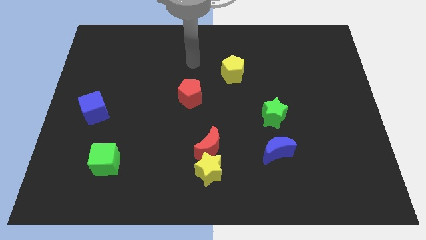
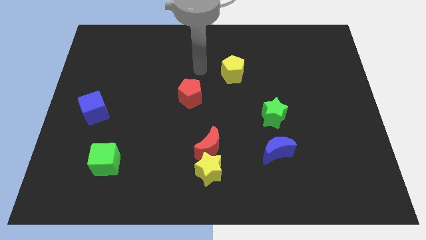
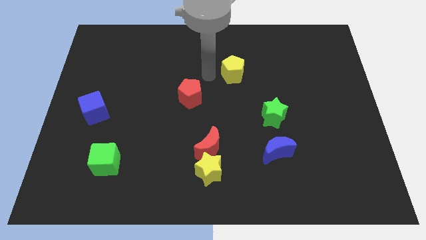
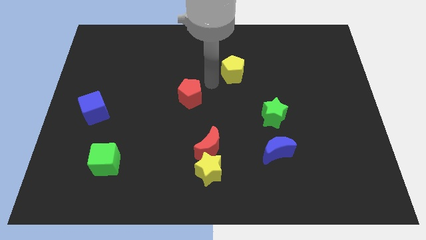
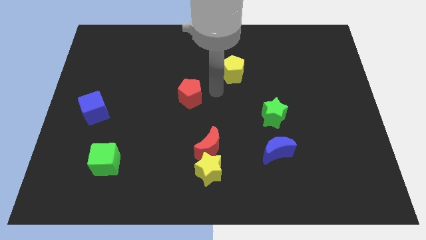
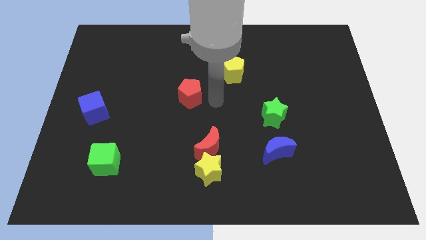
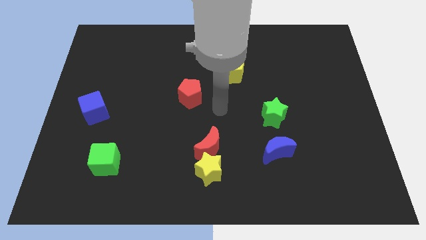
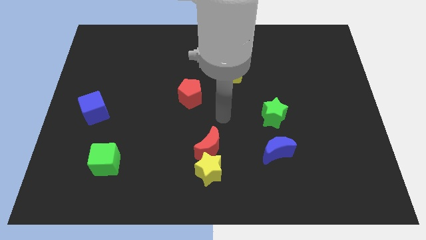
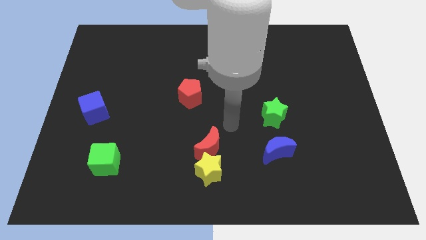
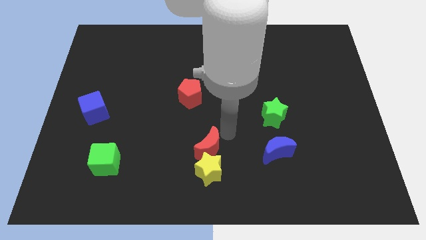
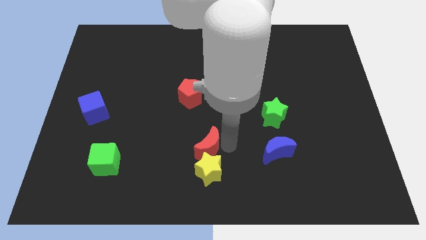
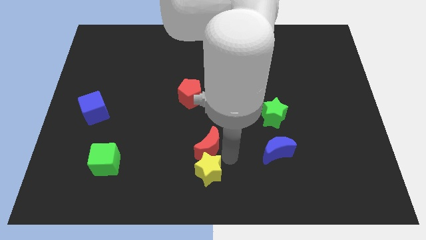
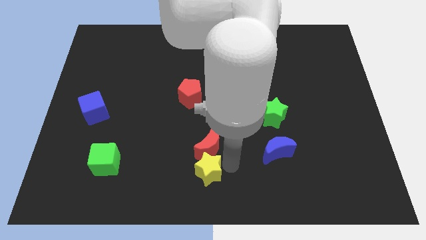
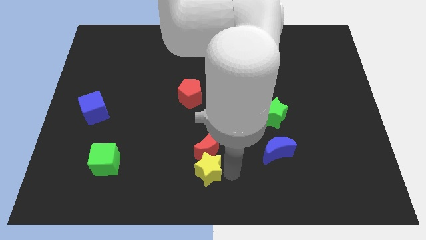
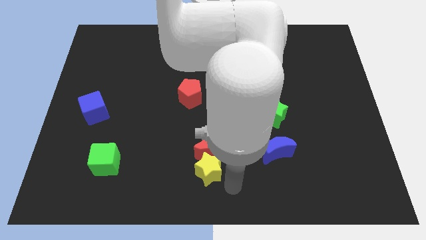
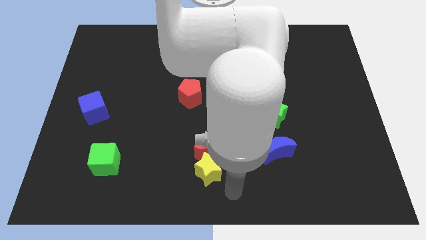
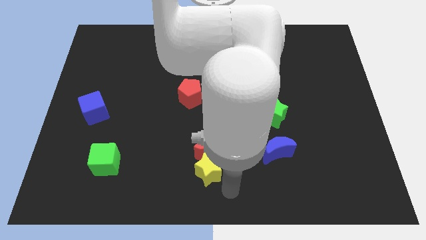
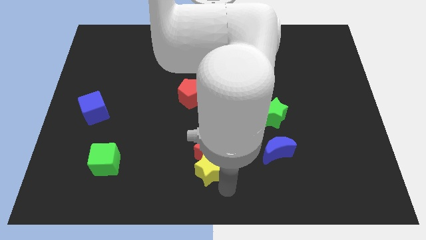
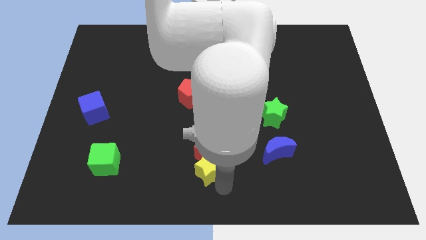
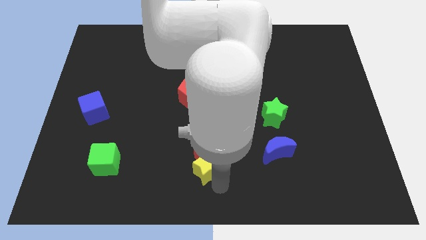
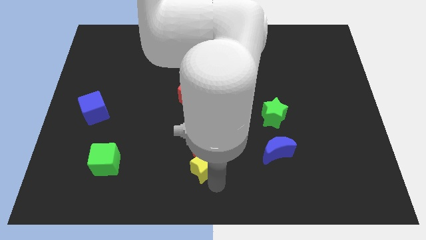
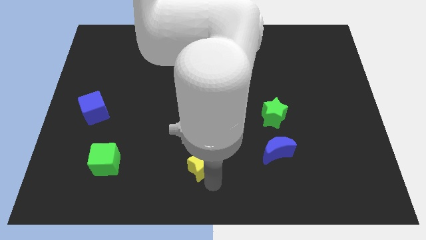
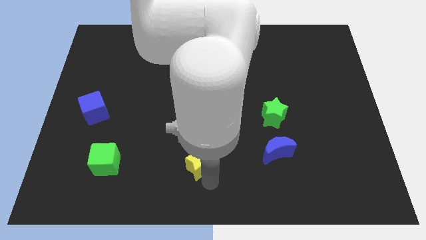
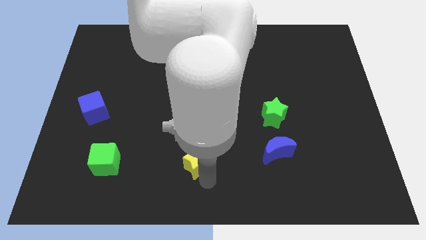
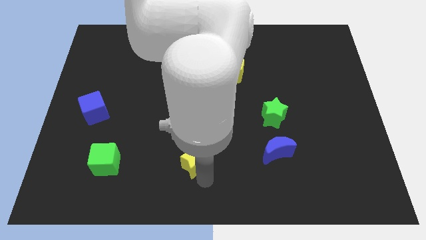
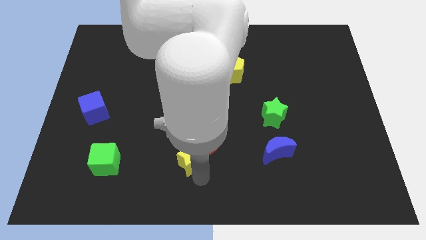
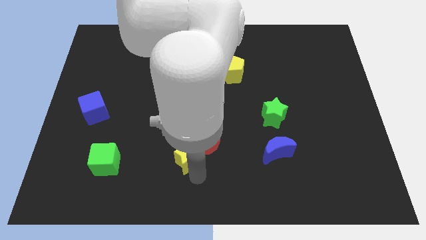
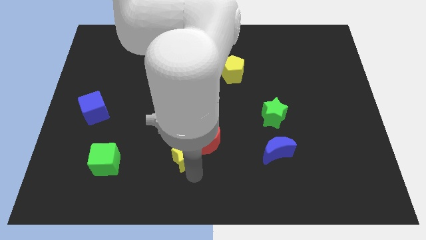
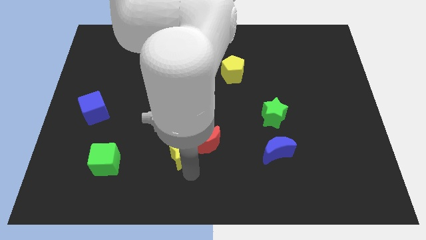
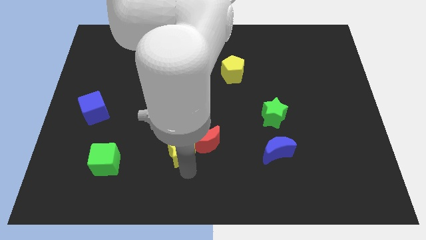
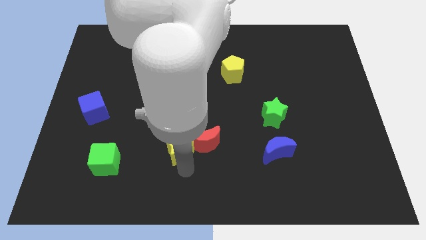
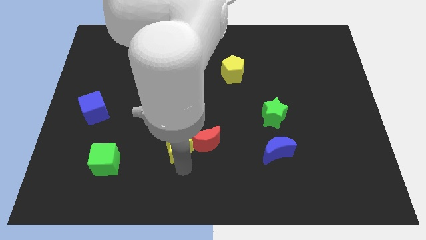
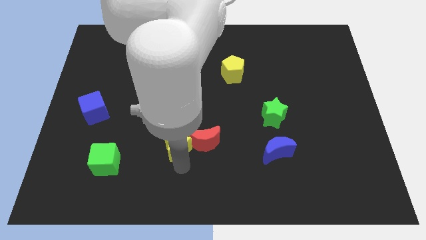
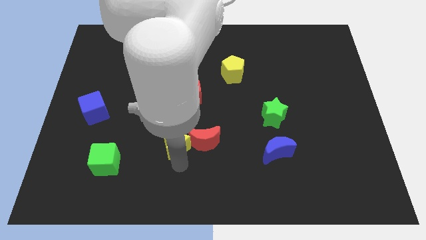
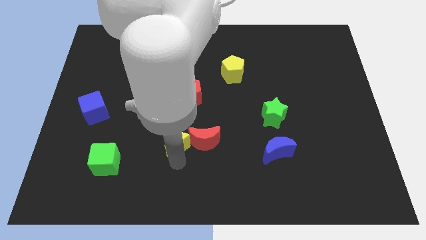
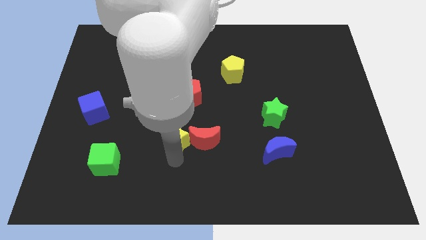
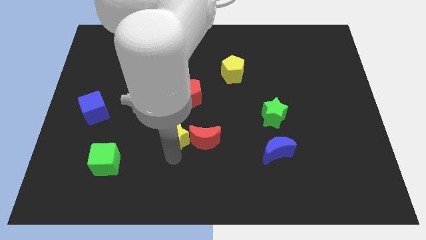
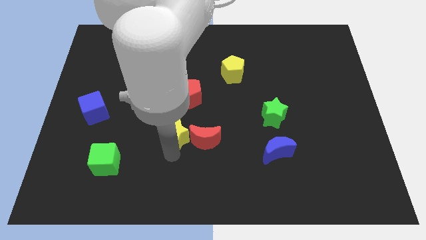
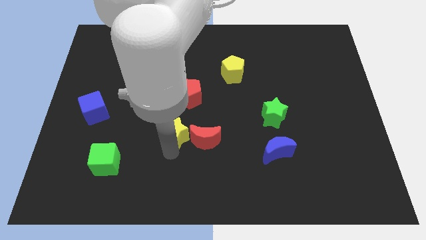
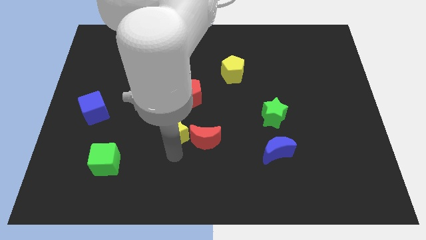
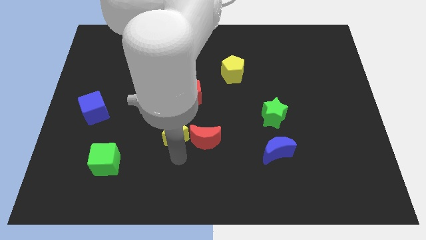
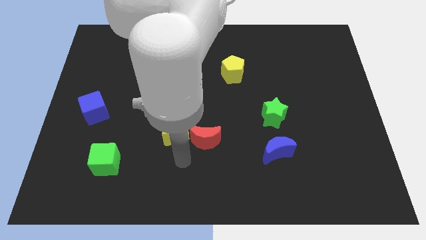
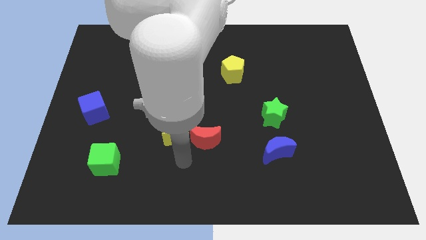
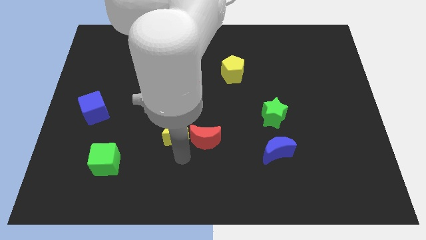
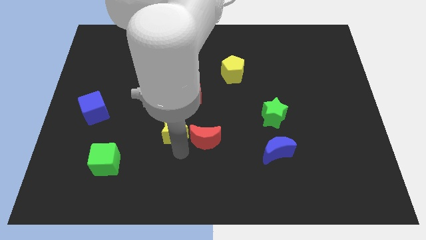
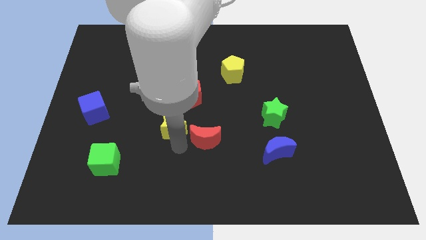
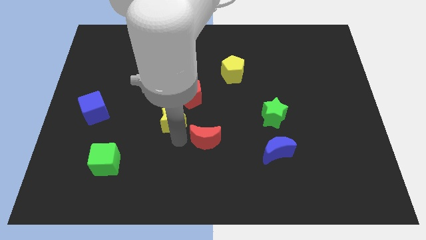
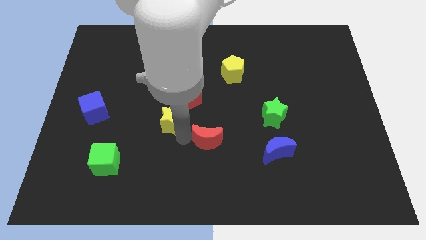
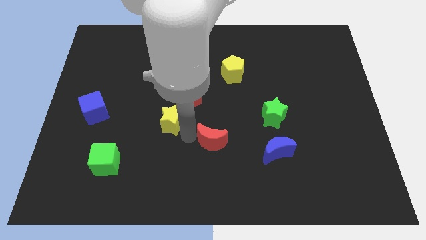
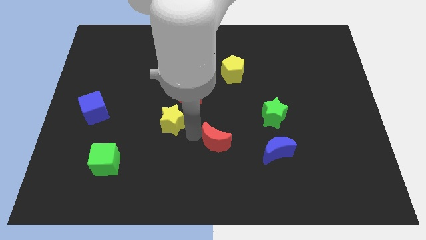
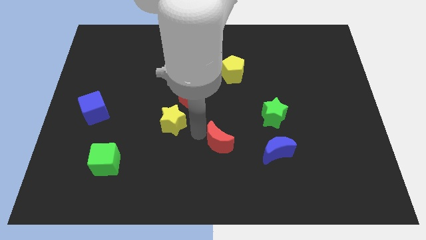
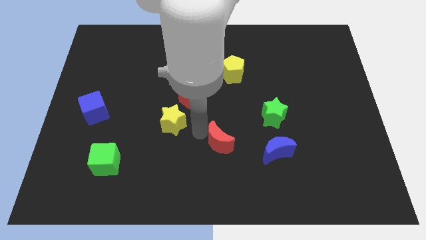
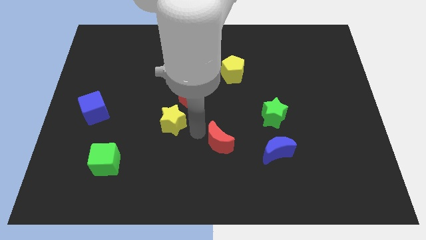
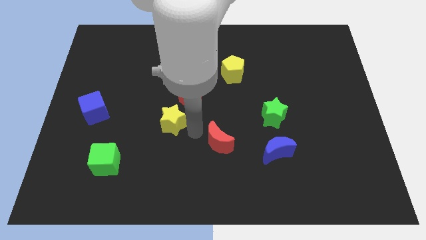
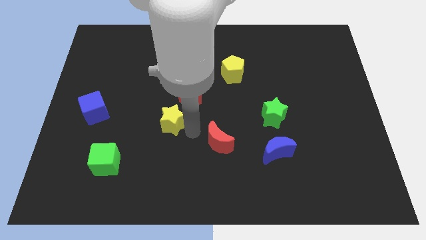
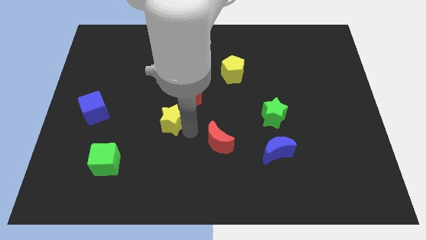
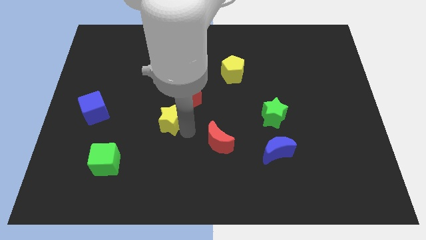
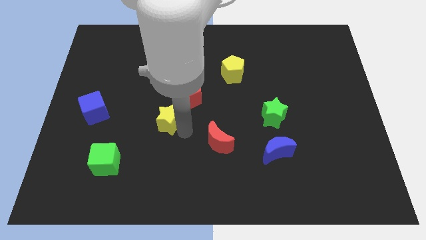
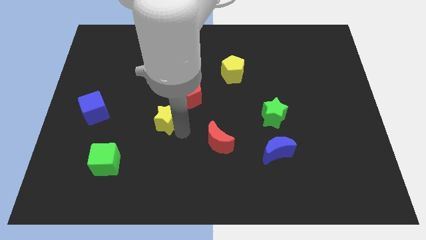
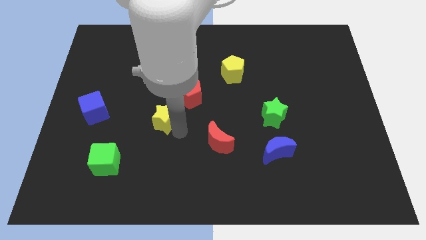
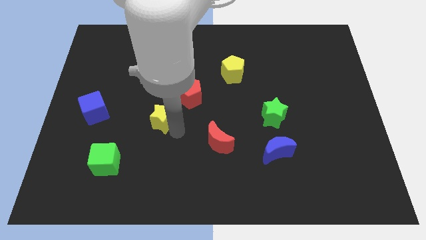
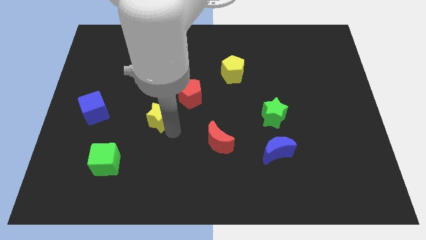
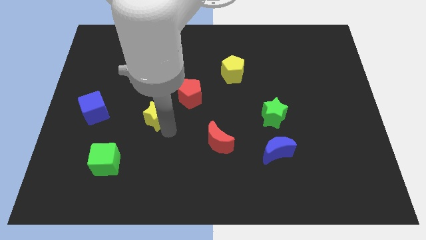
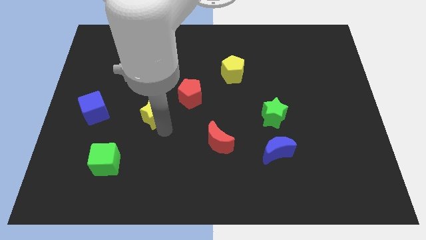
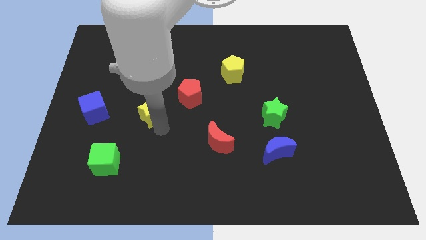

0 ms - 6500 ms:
push the yellow star diagonally up and left

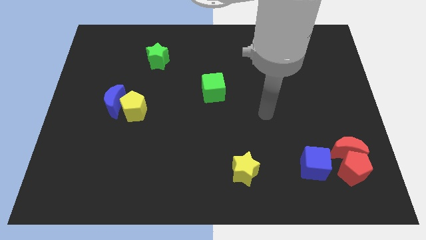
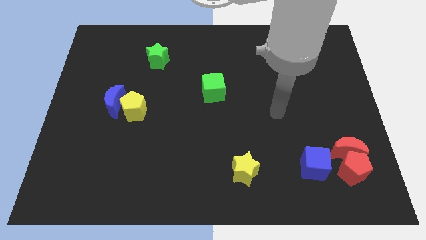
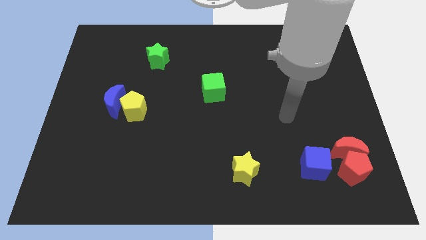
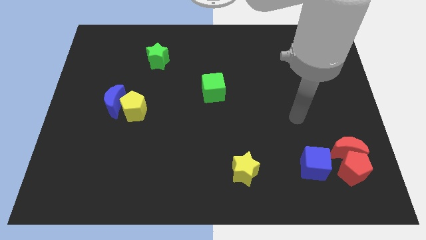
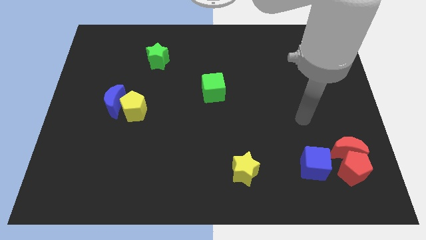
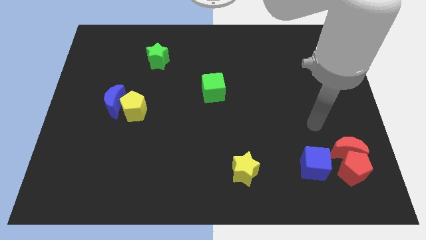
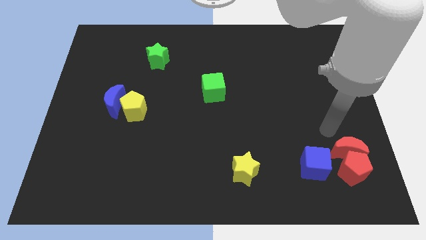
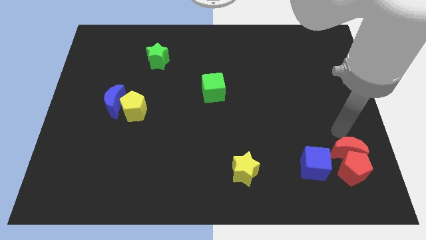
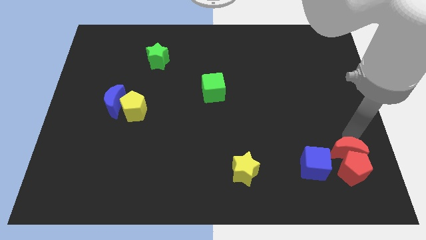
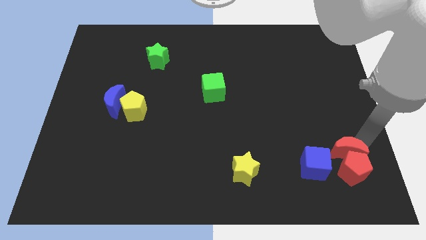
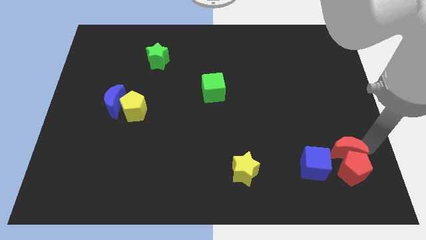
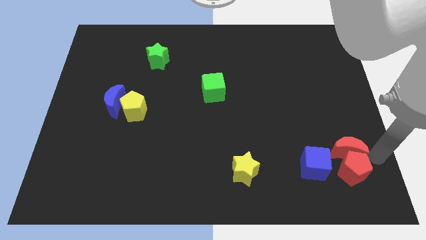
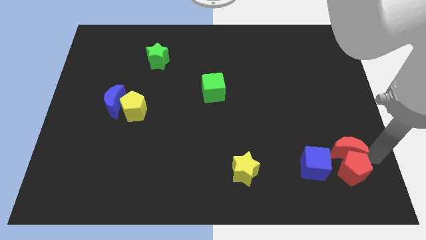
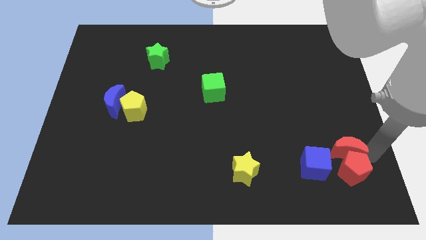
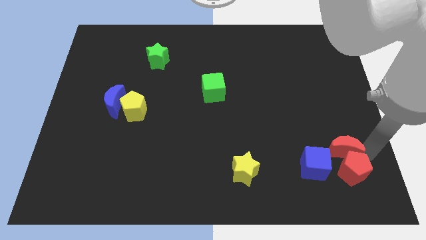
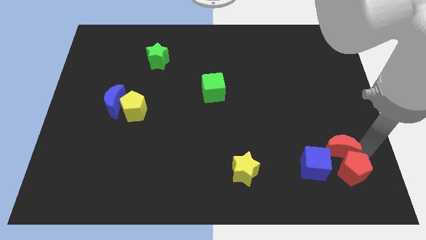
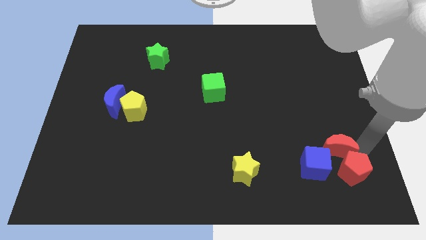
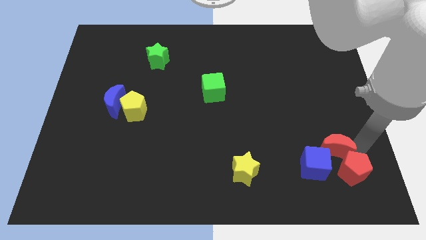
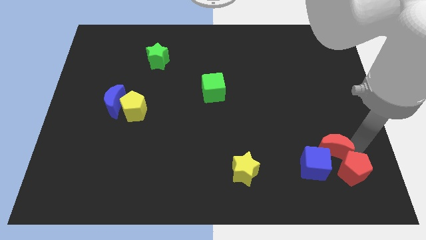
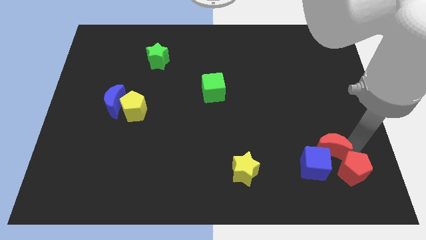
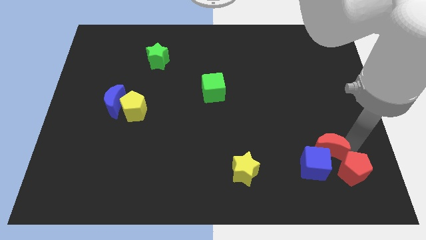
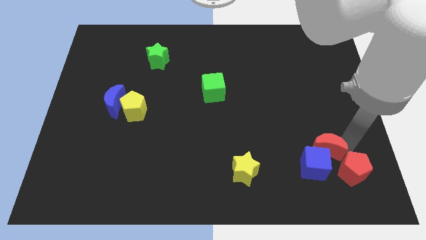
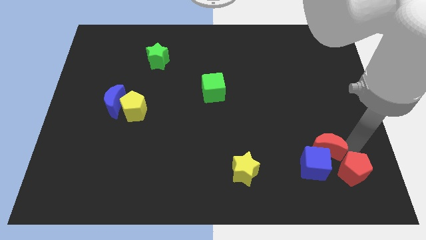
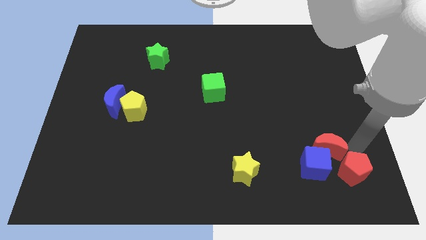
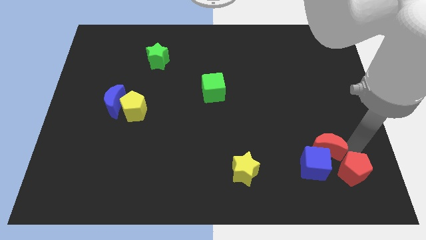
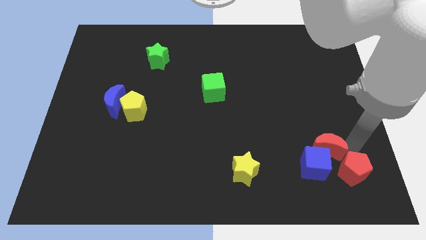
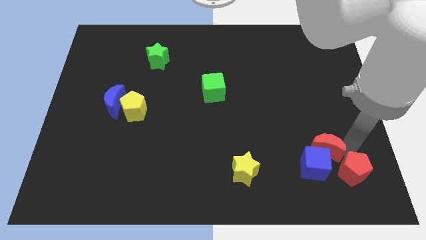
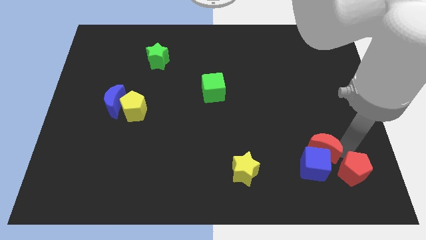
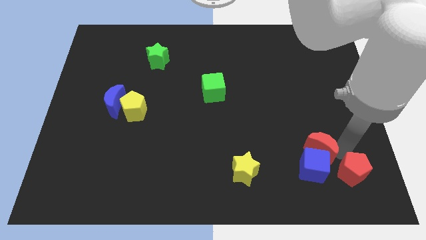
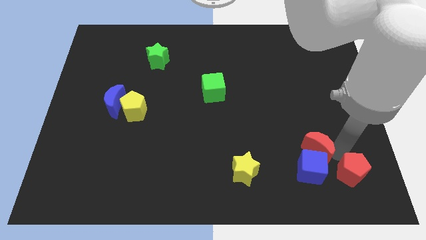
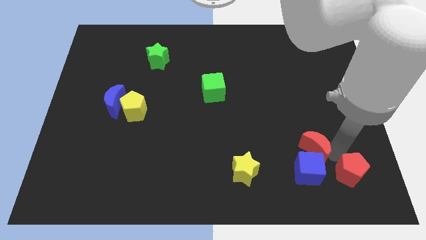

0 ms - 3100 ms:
slightly push the red moon to the left
